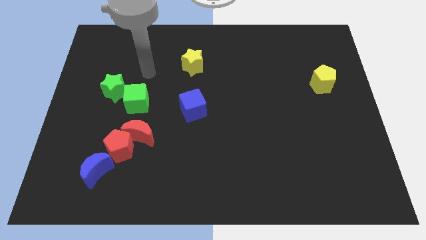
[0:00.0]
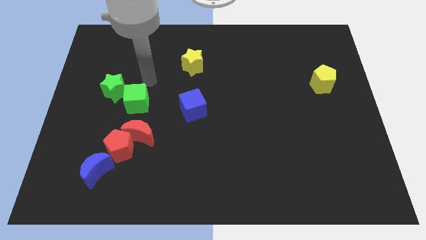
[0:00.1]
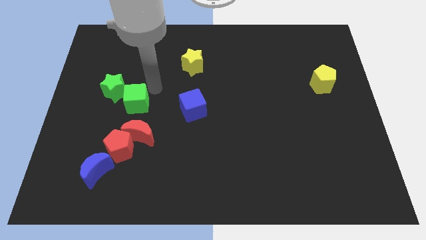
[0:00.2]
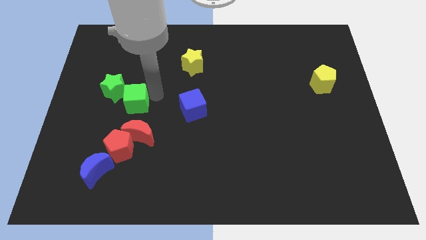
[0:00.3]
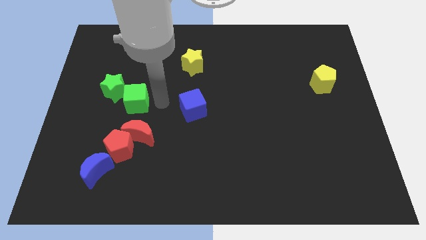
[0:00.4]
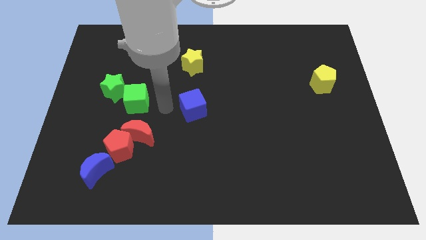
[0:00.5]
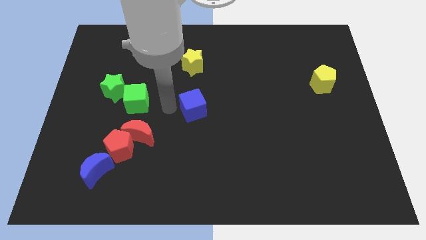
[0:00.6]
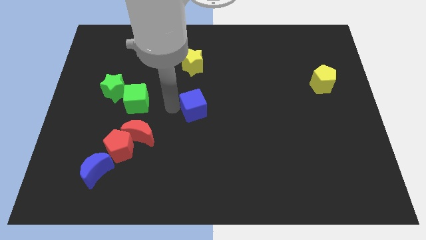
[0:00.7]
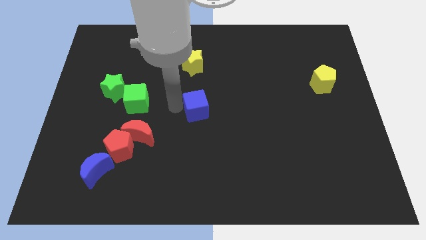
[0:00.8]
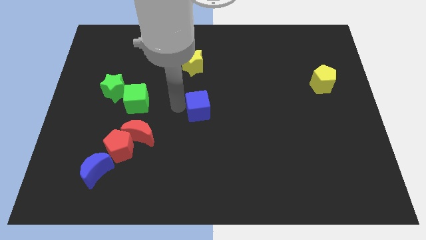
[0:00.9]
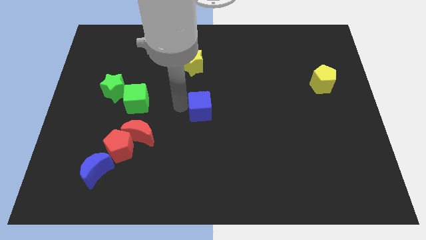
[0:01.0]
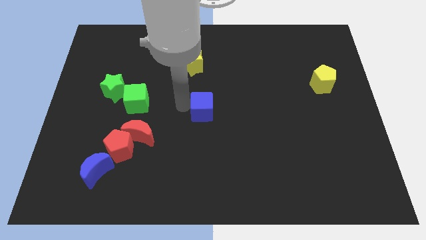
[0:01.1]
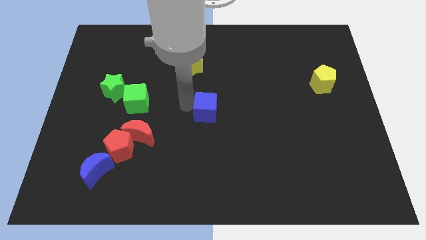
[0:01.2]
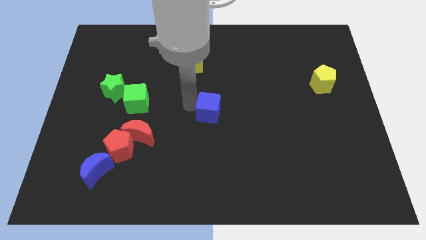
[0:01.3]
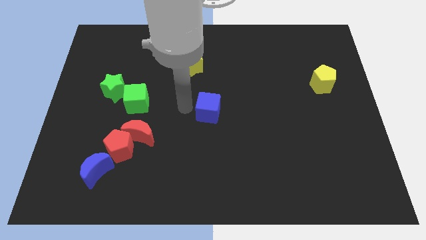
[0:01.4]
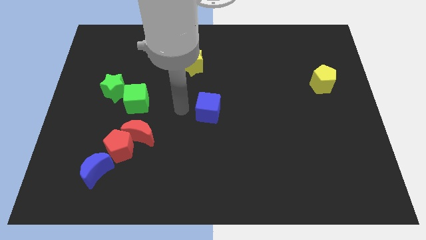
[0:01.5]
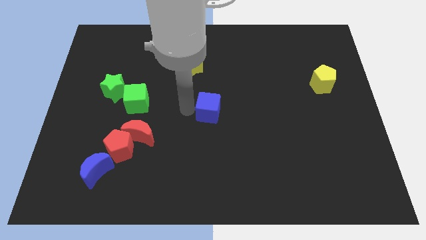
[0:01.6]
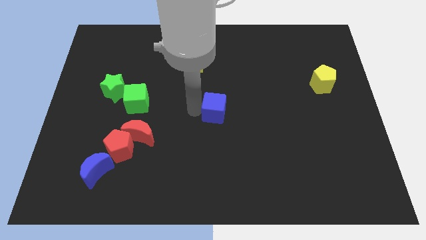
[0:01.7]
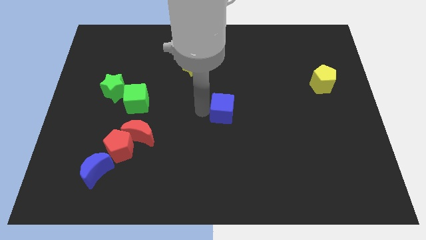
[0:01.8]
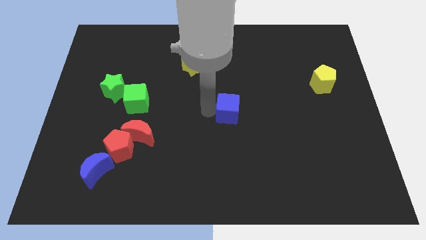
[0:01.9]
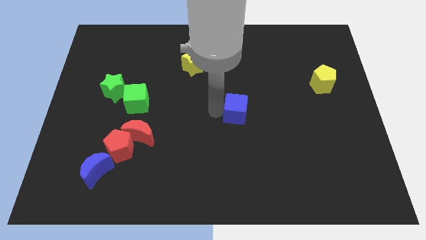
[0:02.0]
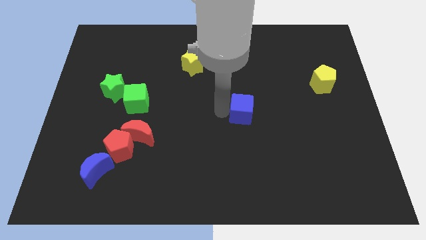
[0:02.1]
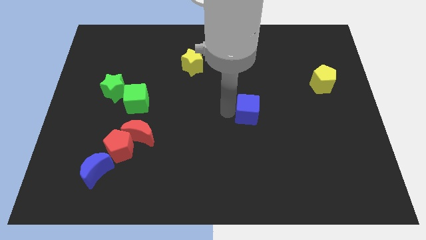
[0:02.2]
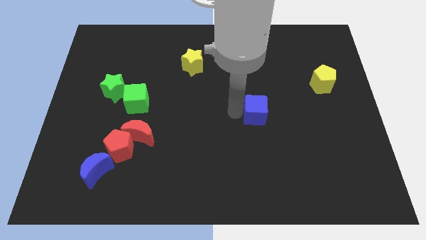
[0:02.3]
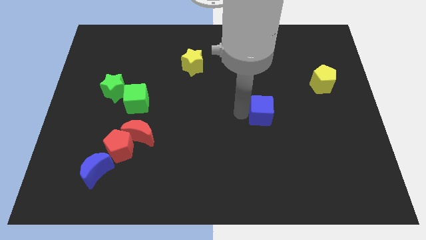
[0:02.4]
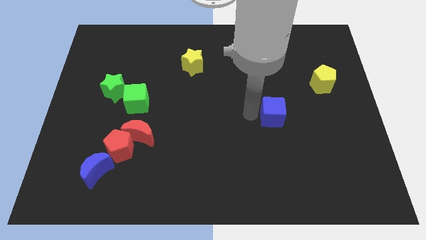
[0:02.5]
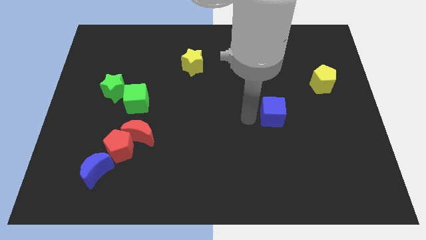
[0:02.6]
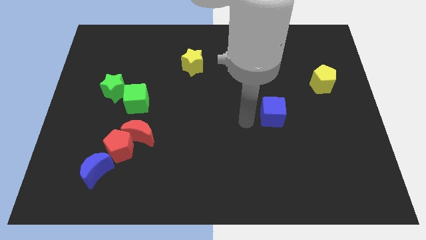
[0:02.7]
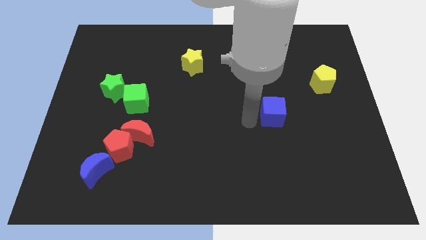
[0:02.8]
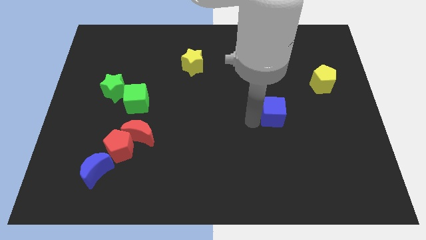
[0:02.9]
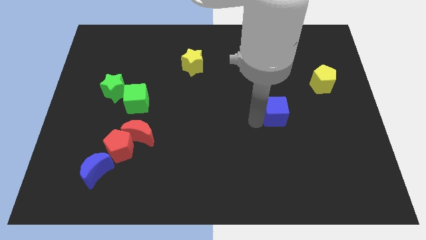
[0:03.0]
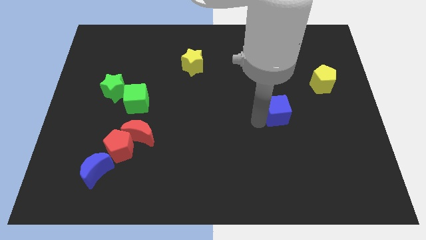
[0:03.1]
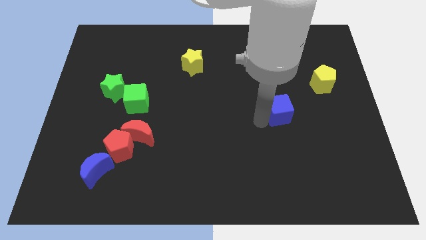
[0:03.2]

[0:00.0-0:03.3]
slide the blue cube to the right

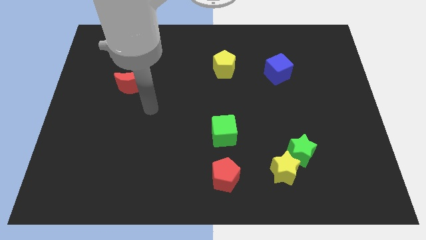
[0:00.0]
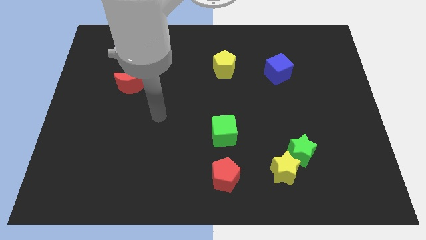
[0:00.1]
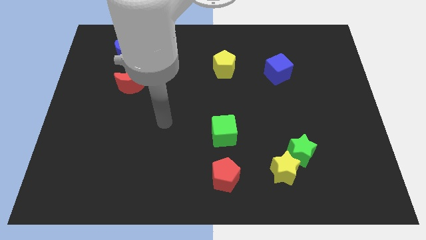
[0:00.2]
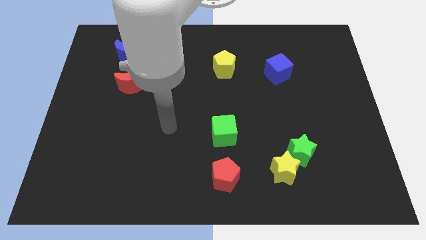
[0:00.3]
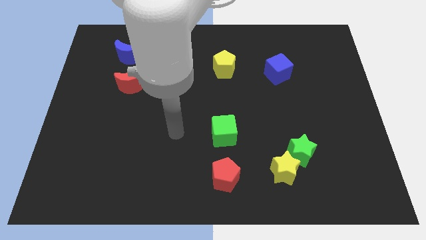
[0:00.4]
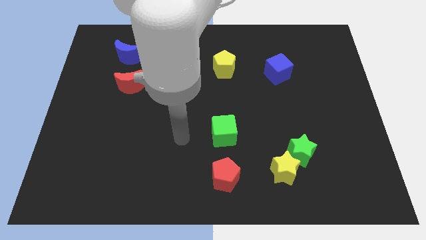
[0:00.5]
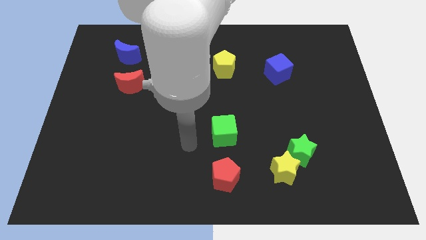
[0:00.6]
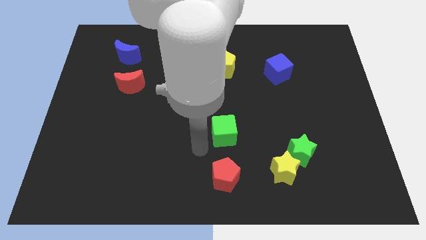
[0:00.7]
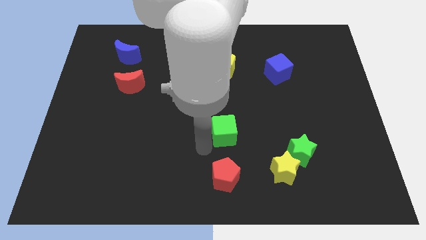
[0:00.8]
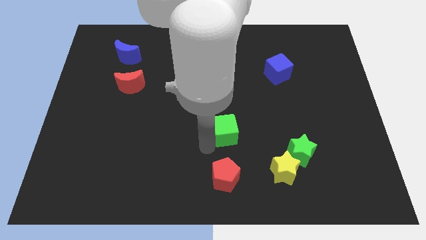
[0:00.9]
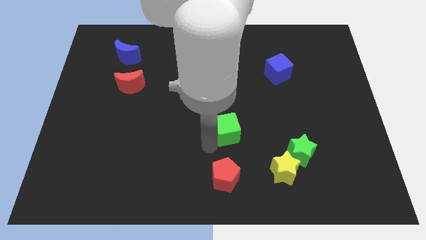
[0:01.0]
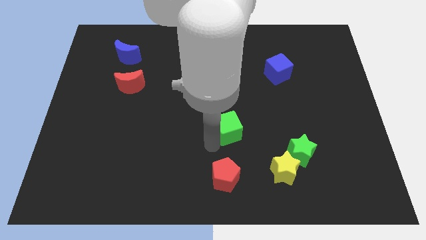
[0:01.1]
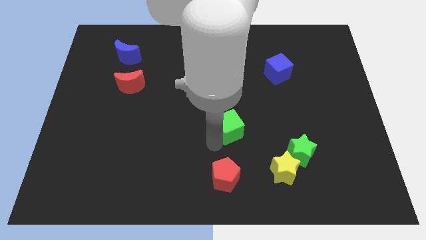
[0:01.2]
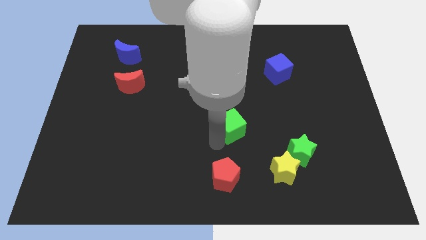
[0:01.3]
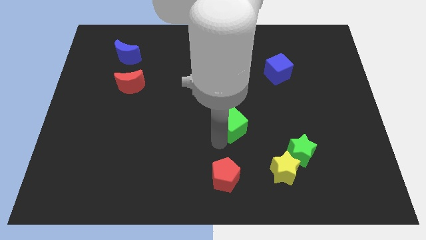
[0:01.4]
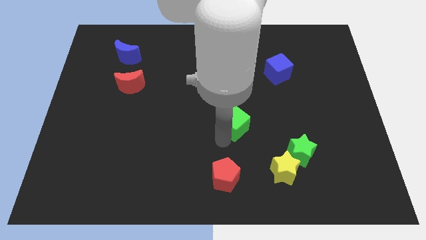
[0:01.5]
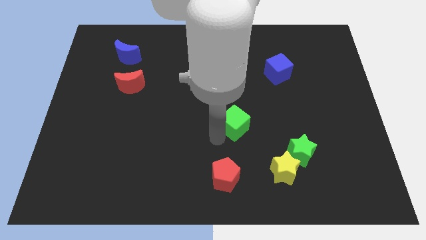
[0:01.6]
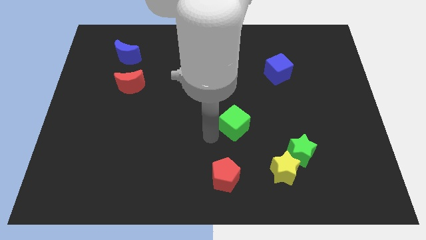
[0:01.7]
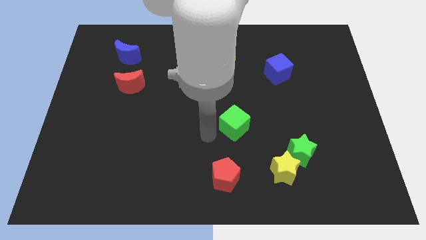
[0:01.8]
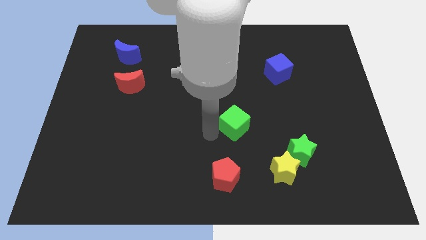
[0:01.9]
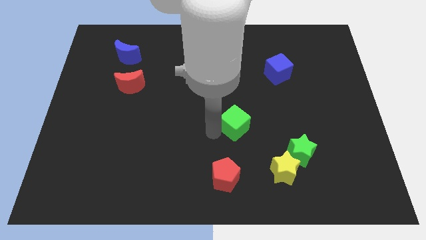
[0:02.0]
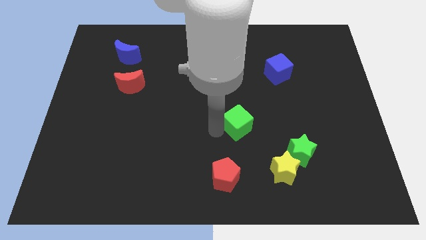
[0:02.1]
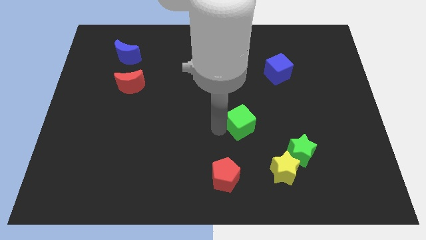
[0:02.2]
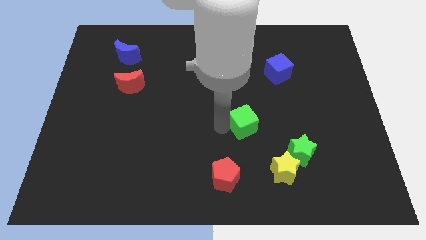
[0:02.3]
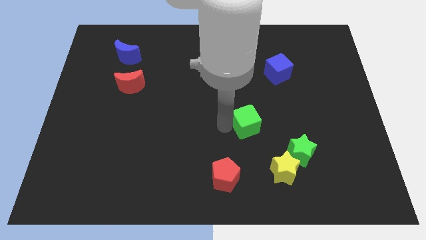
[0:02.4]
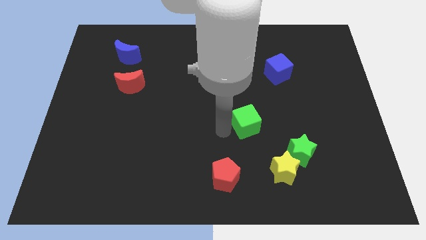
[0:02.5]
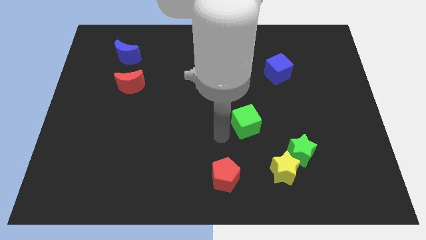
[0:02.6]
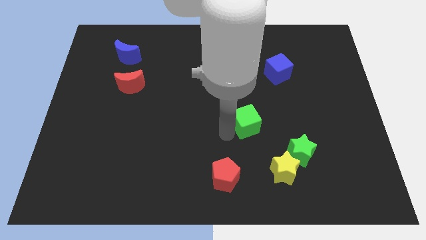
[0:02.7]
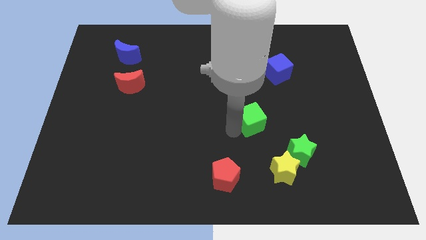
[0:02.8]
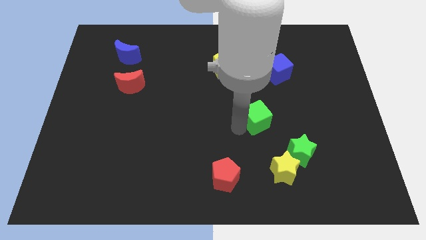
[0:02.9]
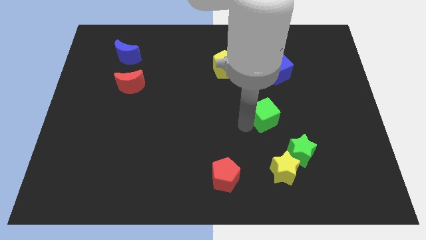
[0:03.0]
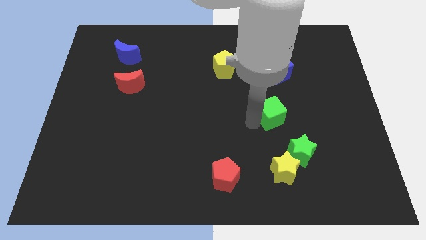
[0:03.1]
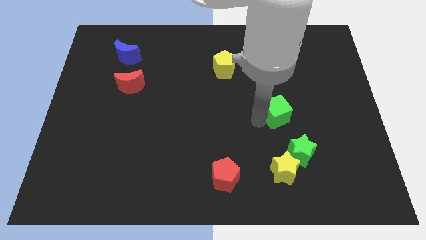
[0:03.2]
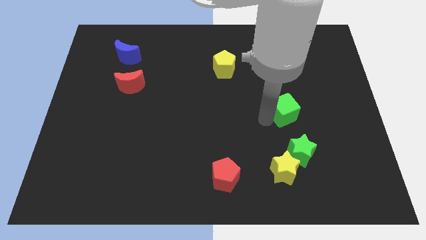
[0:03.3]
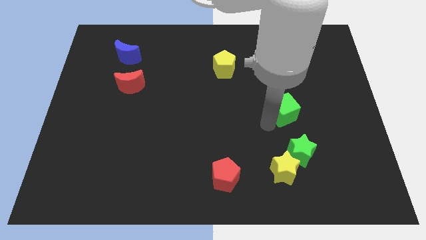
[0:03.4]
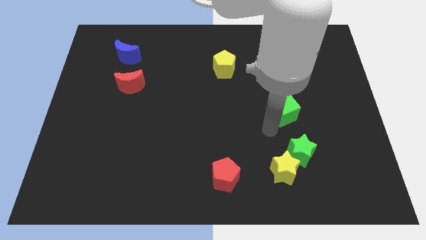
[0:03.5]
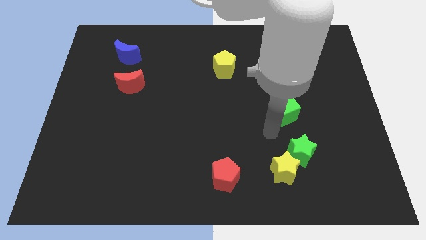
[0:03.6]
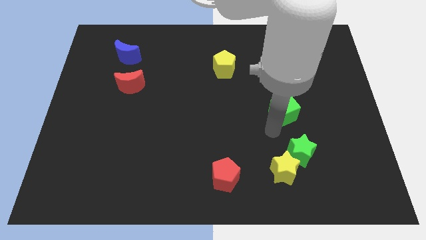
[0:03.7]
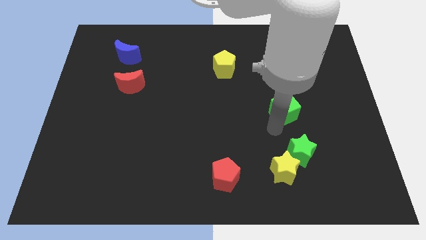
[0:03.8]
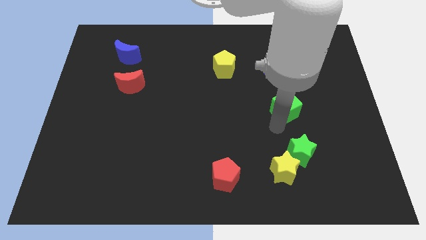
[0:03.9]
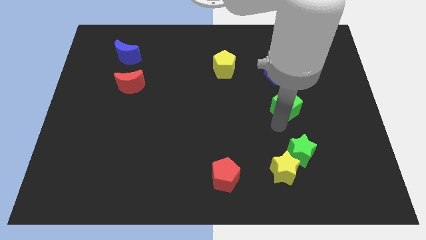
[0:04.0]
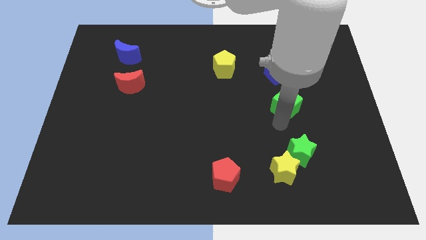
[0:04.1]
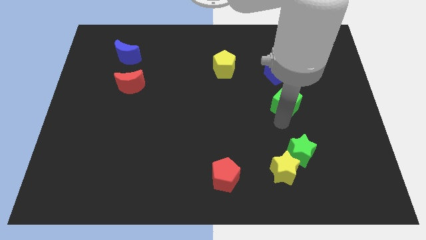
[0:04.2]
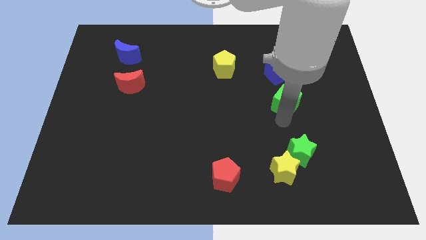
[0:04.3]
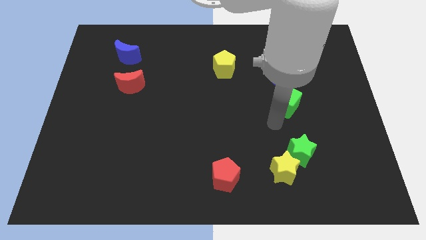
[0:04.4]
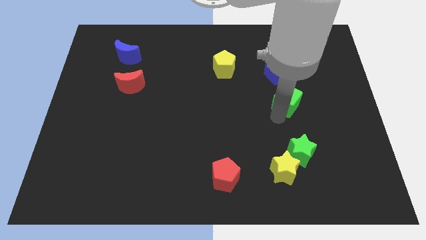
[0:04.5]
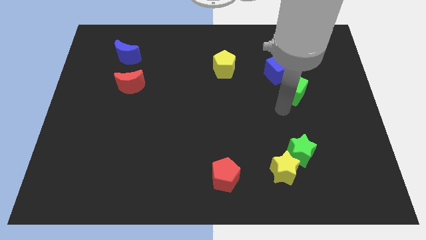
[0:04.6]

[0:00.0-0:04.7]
slide the green cube diagonally upwards and to the right

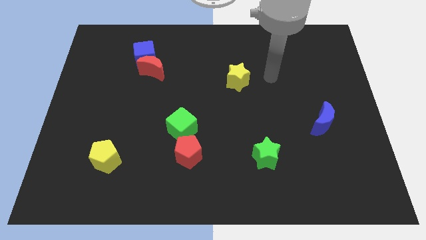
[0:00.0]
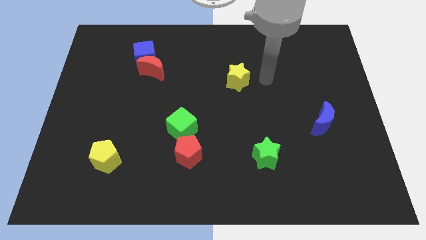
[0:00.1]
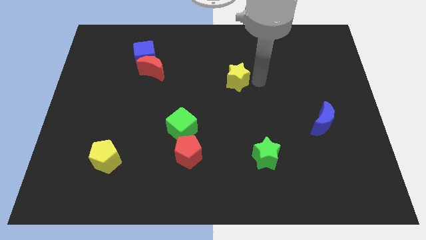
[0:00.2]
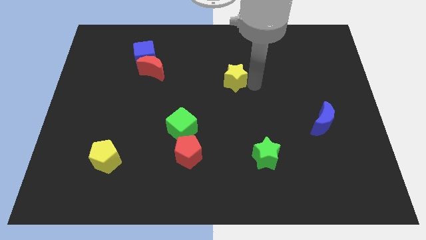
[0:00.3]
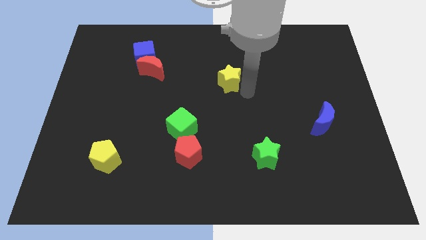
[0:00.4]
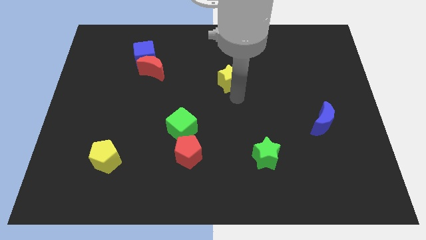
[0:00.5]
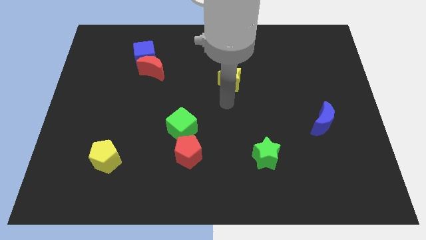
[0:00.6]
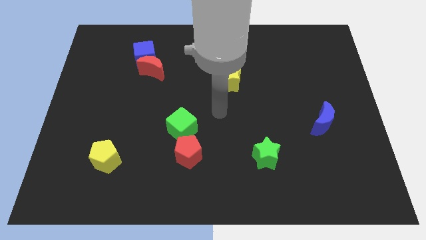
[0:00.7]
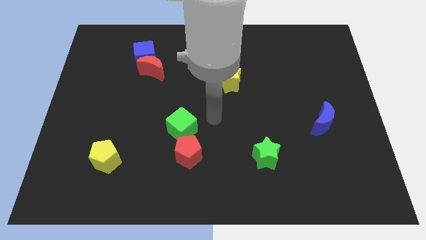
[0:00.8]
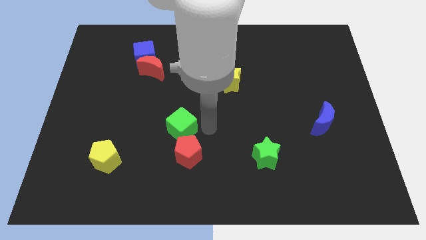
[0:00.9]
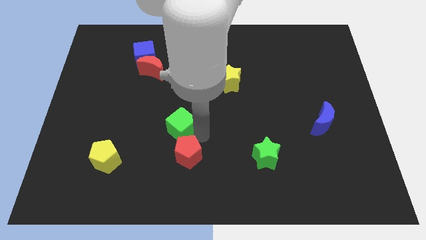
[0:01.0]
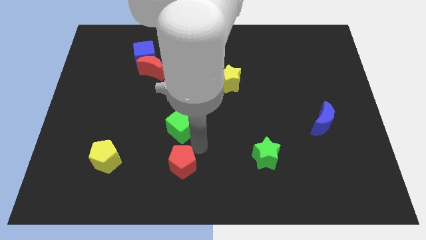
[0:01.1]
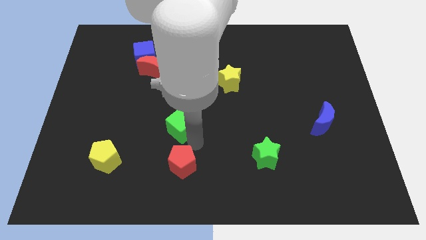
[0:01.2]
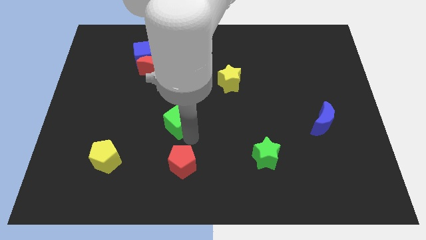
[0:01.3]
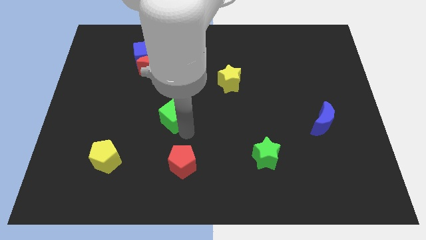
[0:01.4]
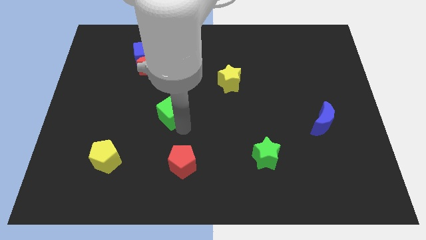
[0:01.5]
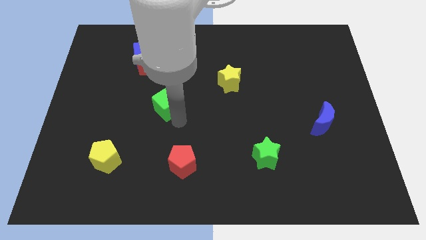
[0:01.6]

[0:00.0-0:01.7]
slide the green cube upwards and left diagonally a bit
